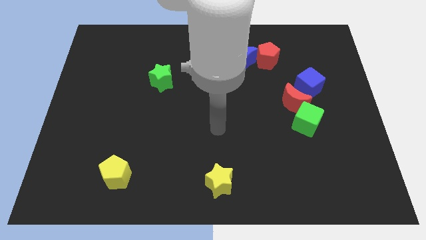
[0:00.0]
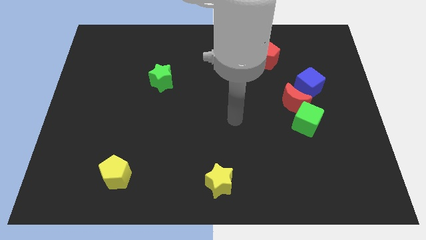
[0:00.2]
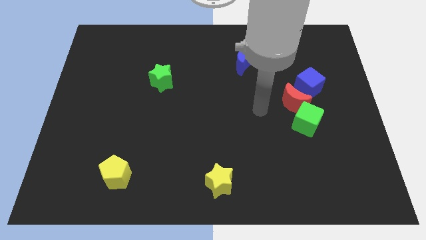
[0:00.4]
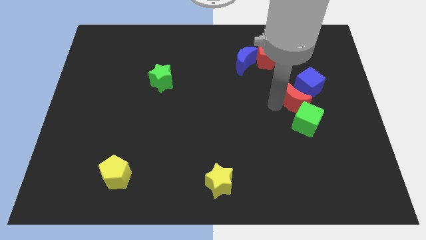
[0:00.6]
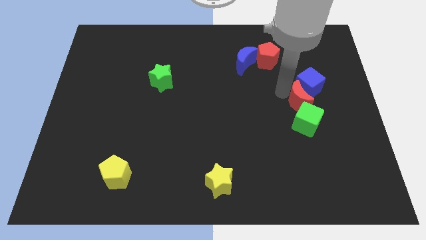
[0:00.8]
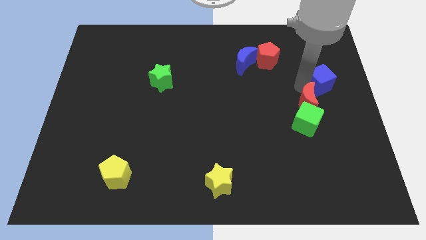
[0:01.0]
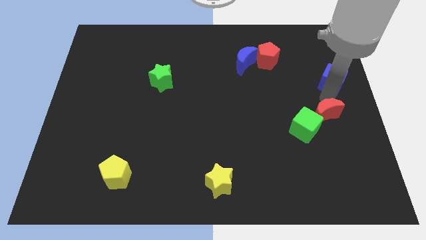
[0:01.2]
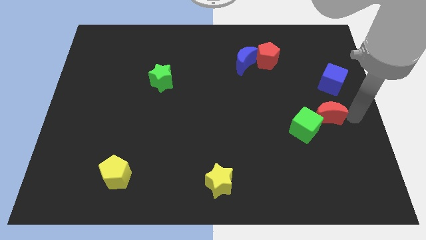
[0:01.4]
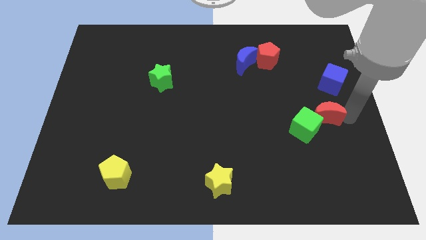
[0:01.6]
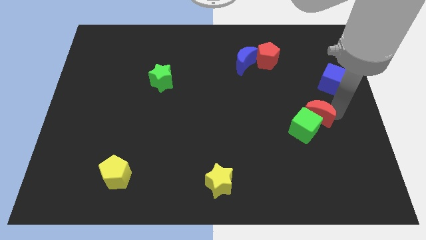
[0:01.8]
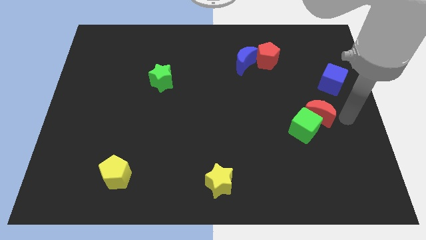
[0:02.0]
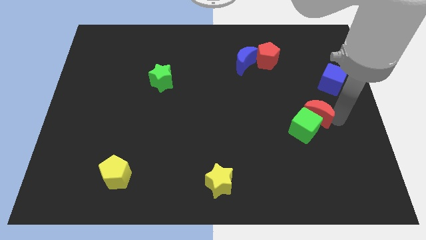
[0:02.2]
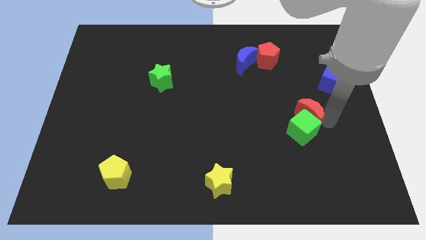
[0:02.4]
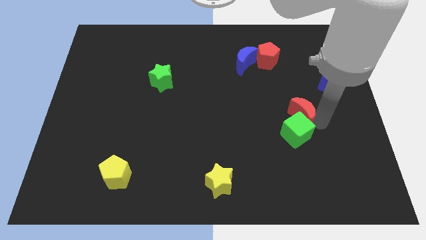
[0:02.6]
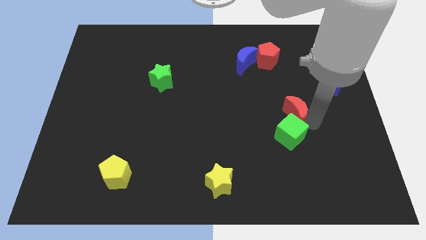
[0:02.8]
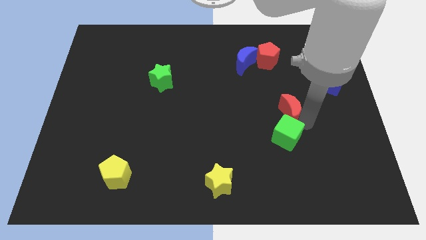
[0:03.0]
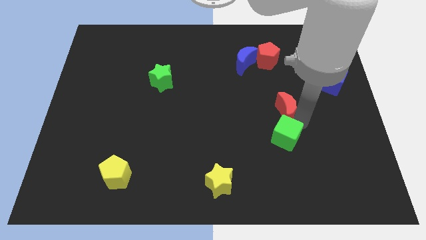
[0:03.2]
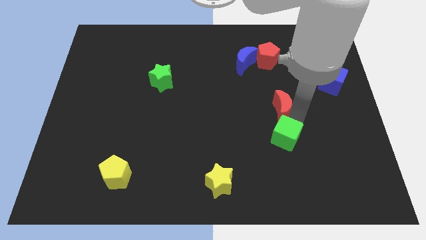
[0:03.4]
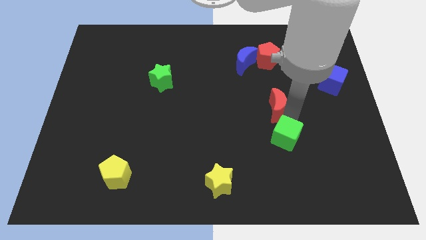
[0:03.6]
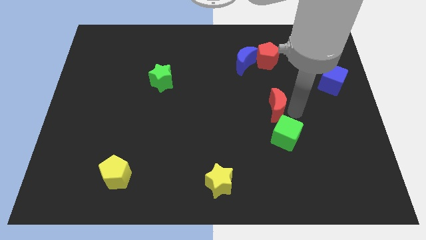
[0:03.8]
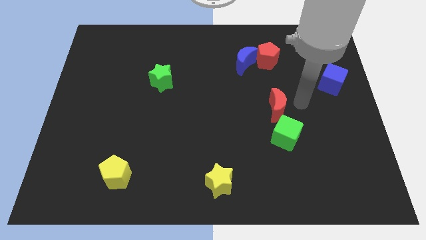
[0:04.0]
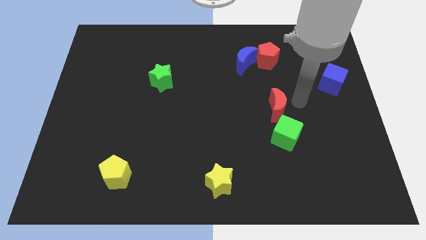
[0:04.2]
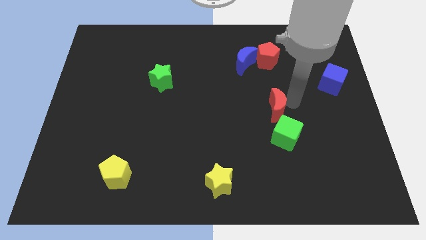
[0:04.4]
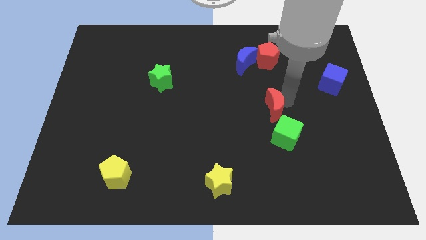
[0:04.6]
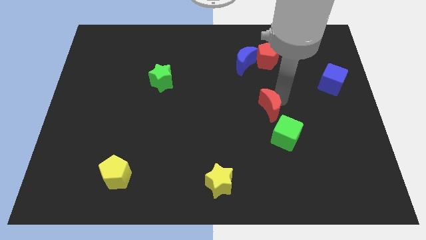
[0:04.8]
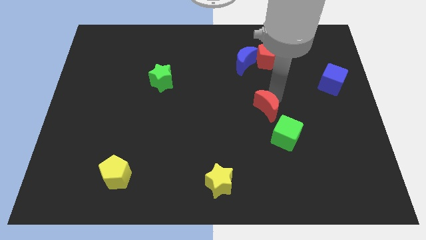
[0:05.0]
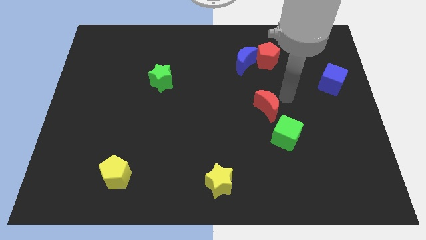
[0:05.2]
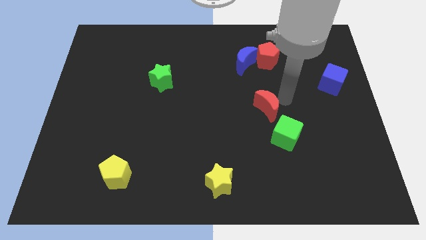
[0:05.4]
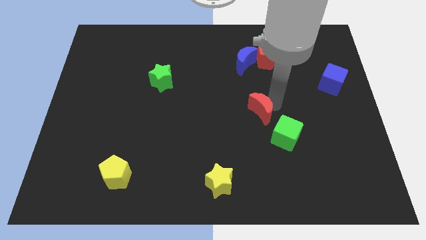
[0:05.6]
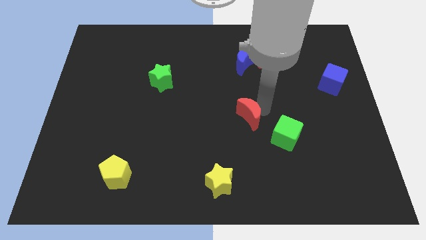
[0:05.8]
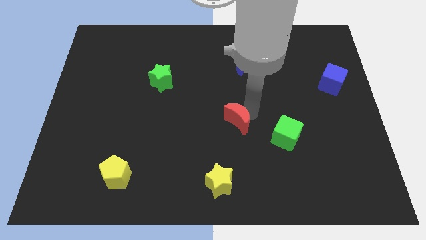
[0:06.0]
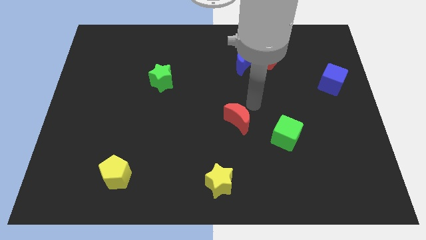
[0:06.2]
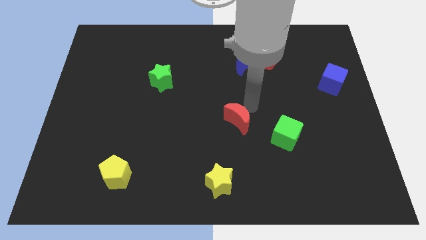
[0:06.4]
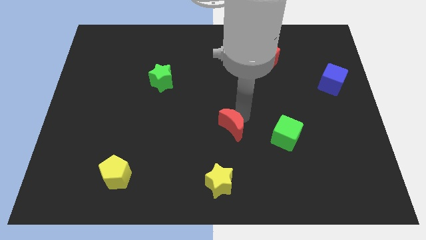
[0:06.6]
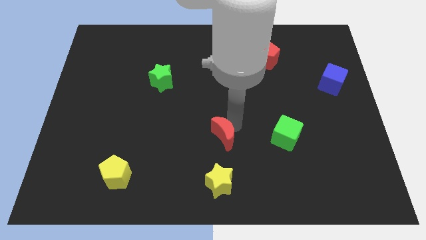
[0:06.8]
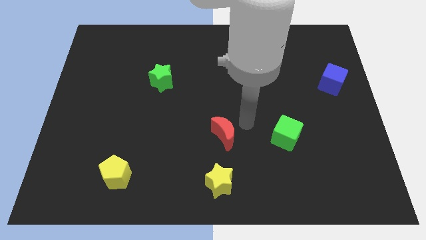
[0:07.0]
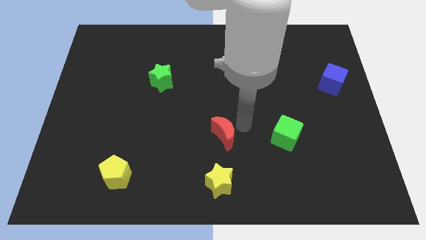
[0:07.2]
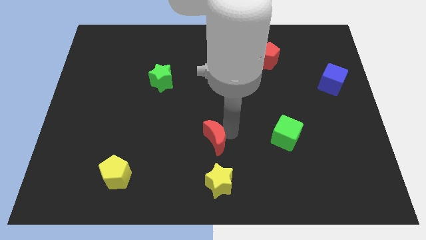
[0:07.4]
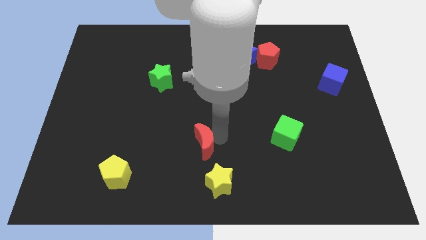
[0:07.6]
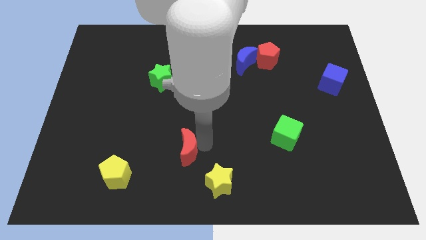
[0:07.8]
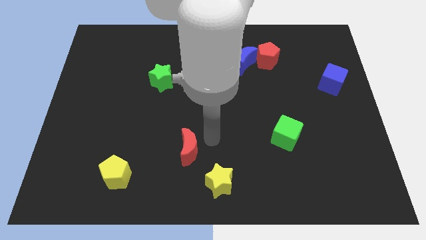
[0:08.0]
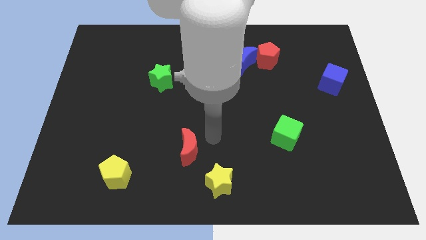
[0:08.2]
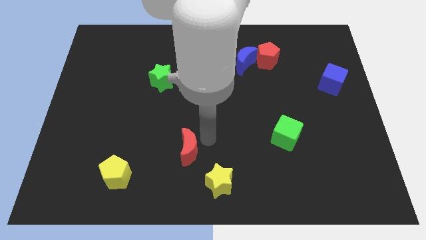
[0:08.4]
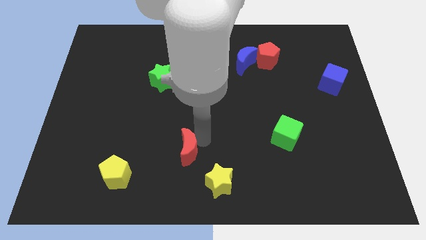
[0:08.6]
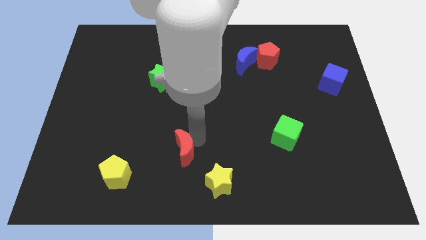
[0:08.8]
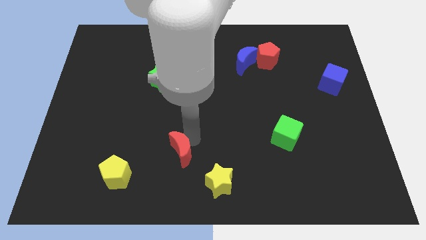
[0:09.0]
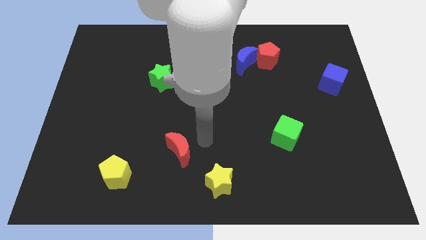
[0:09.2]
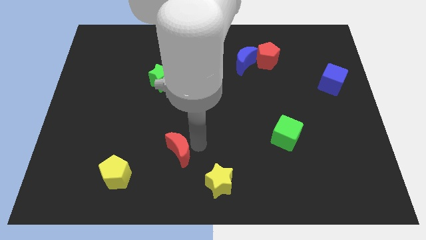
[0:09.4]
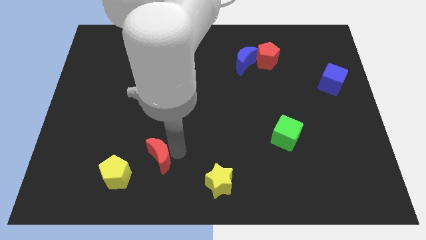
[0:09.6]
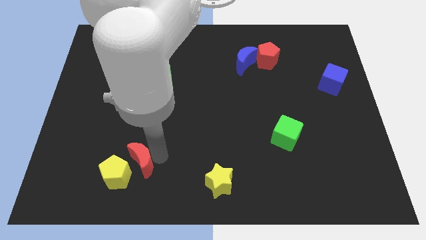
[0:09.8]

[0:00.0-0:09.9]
move the red moon to the yellow pentagon

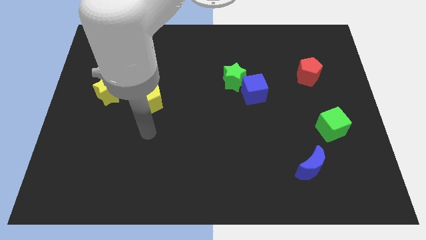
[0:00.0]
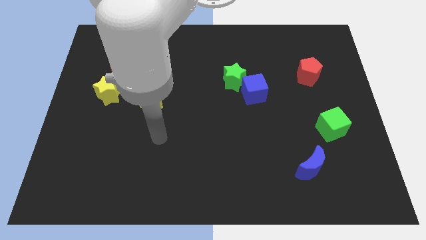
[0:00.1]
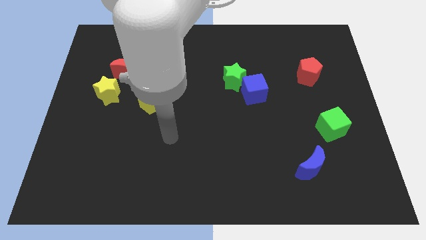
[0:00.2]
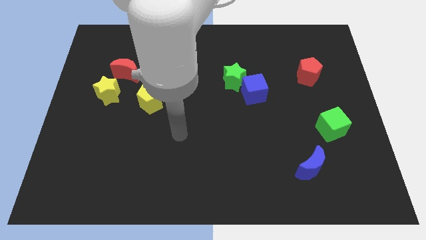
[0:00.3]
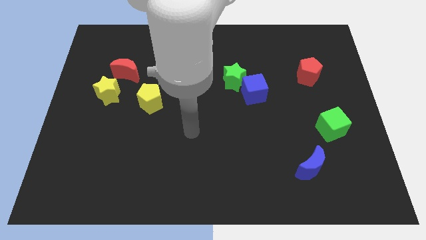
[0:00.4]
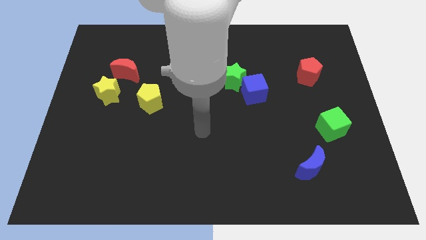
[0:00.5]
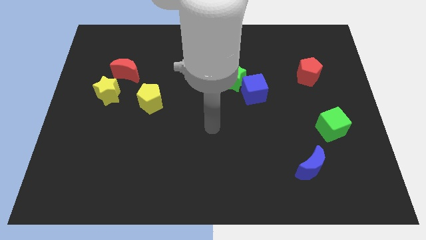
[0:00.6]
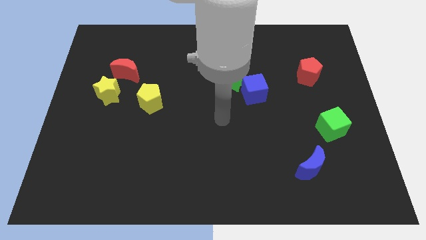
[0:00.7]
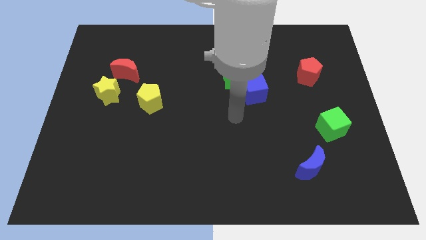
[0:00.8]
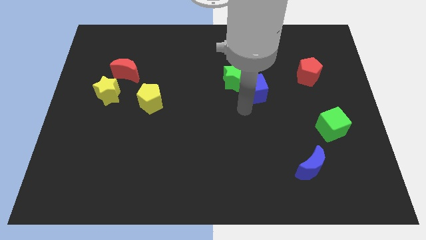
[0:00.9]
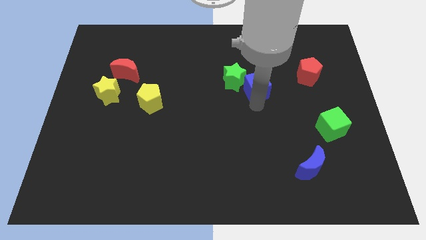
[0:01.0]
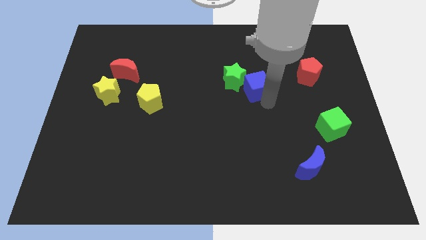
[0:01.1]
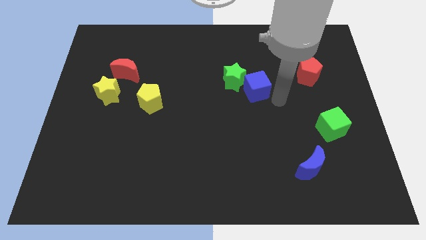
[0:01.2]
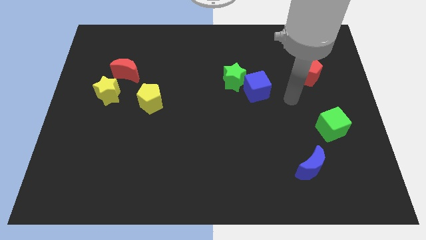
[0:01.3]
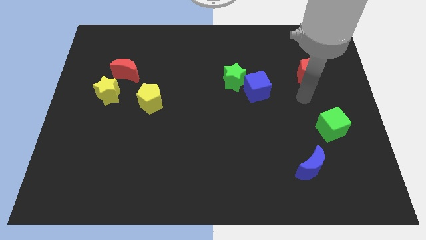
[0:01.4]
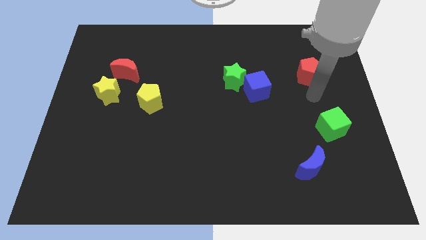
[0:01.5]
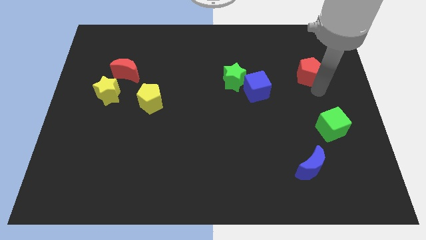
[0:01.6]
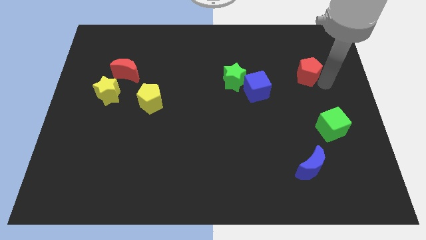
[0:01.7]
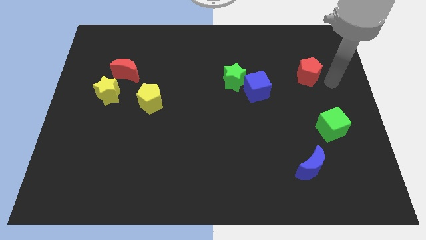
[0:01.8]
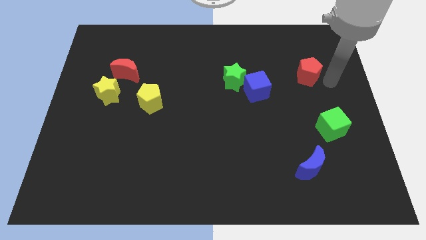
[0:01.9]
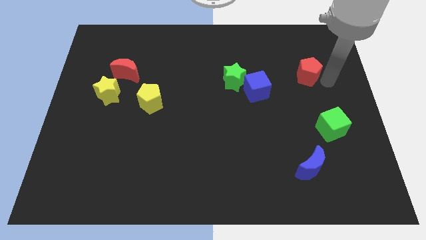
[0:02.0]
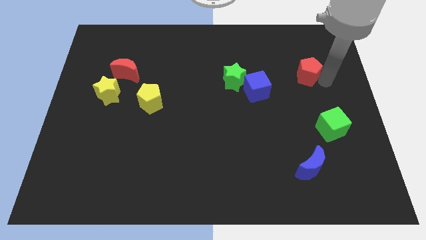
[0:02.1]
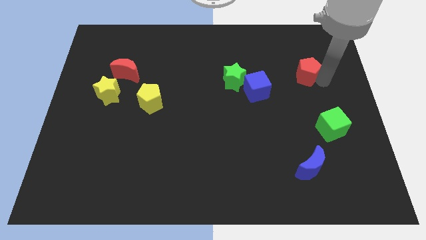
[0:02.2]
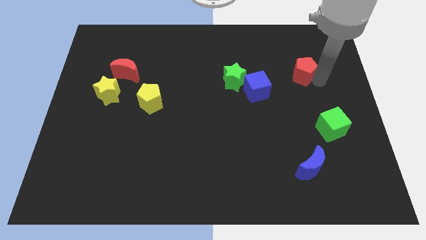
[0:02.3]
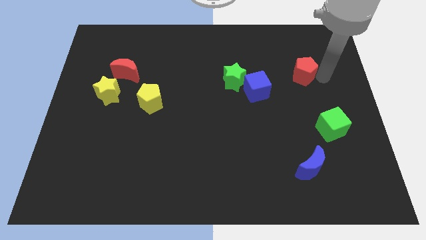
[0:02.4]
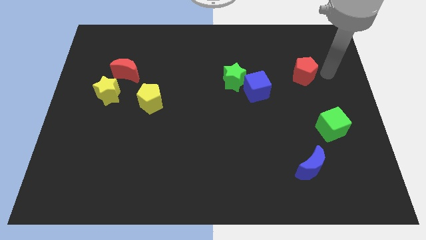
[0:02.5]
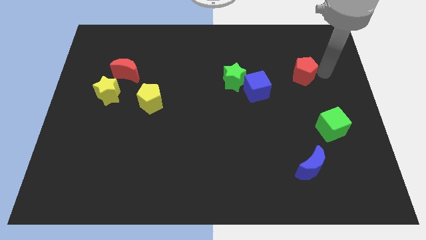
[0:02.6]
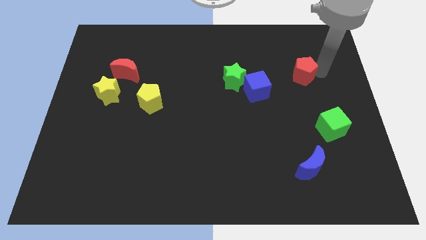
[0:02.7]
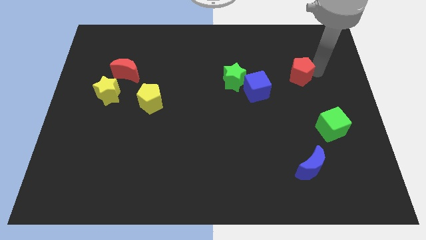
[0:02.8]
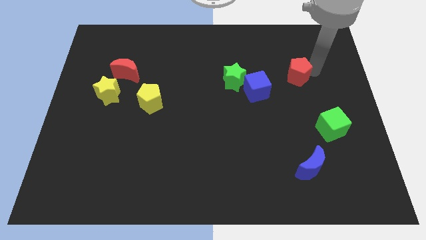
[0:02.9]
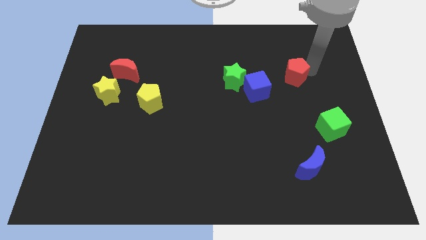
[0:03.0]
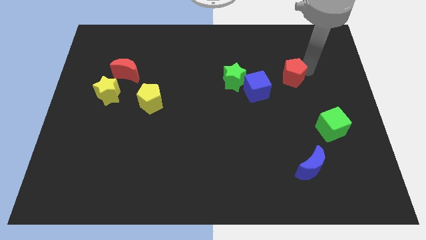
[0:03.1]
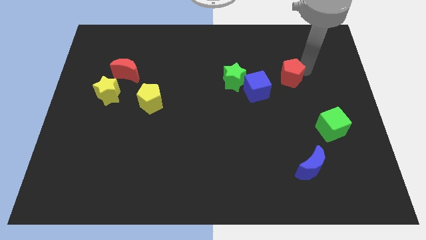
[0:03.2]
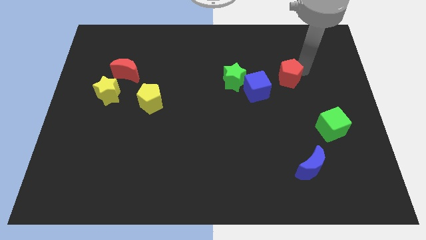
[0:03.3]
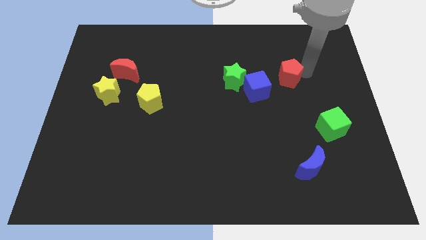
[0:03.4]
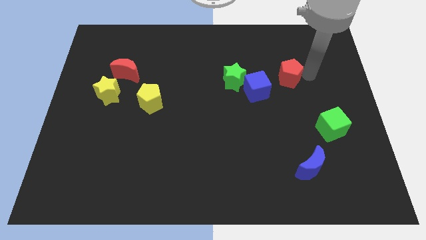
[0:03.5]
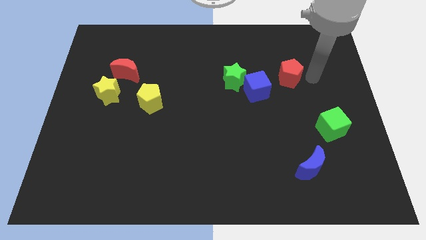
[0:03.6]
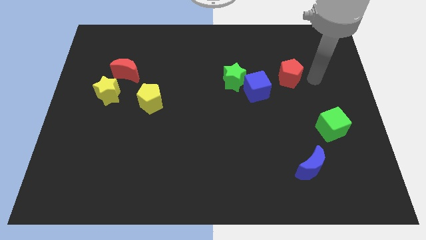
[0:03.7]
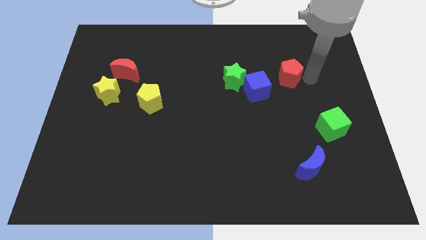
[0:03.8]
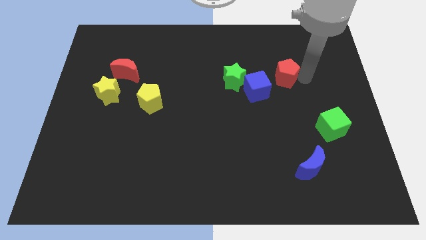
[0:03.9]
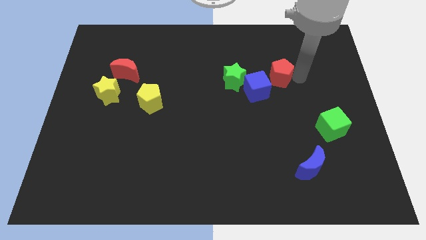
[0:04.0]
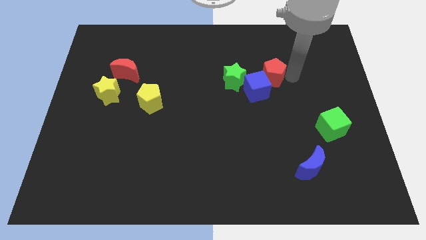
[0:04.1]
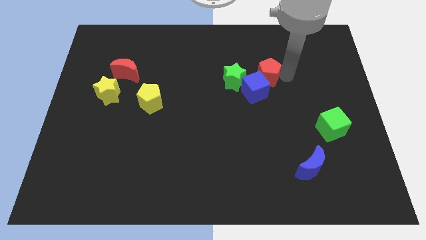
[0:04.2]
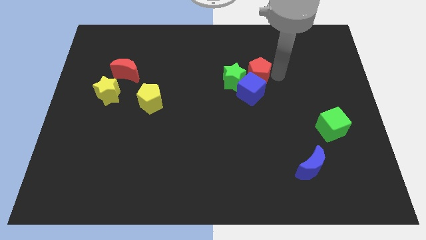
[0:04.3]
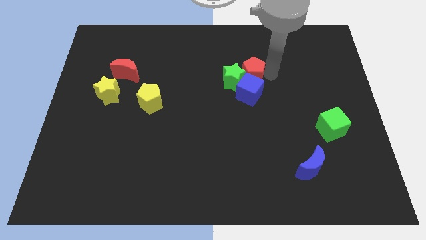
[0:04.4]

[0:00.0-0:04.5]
move the red pentagon towards the green star
